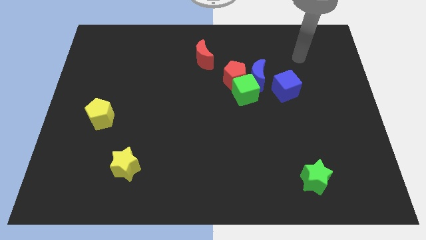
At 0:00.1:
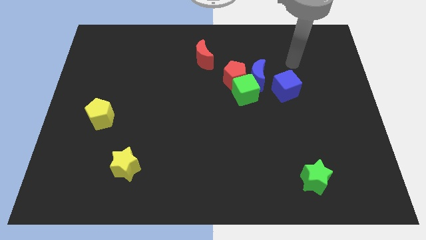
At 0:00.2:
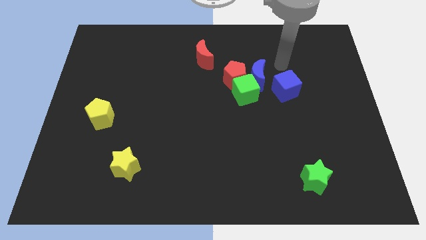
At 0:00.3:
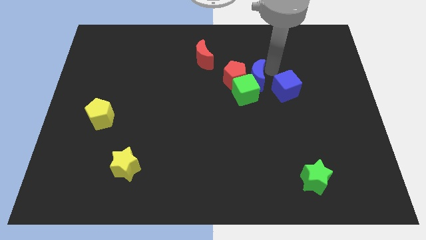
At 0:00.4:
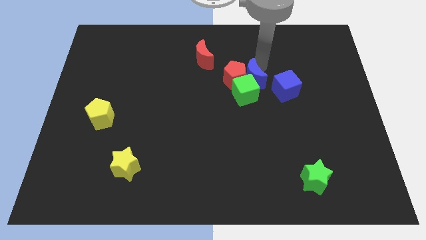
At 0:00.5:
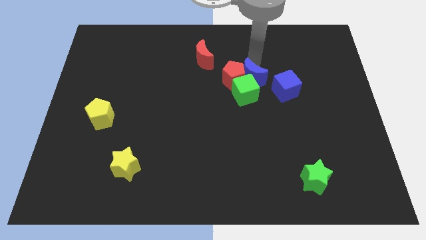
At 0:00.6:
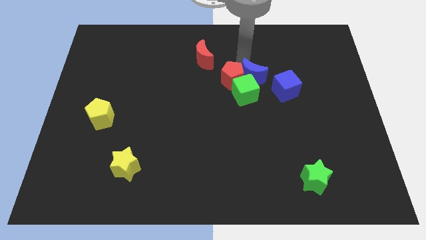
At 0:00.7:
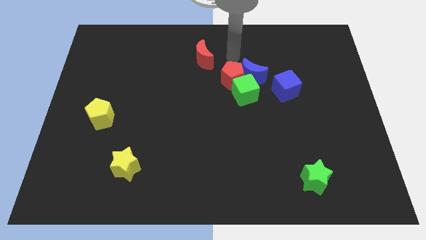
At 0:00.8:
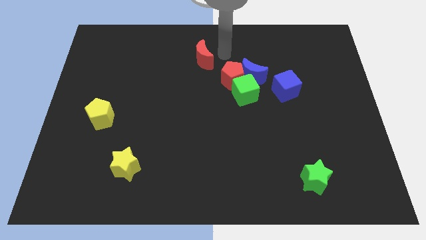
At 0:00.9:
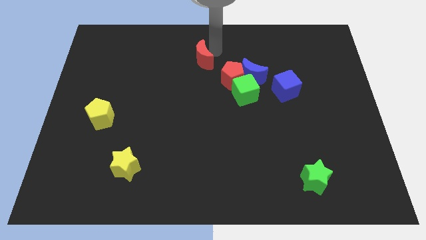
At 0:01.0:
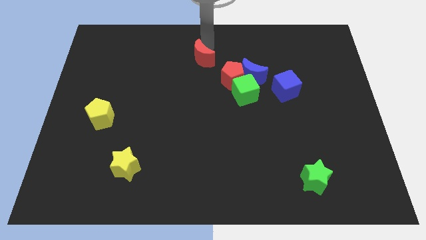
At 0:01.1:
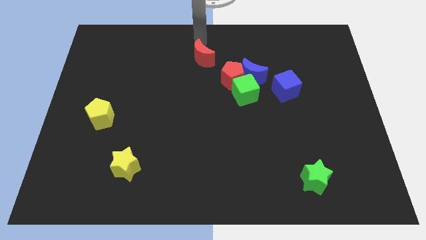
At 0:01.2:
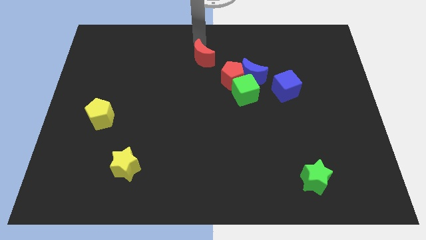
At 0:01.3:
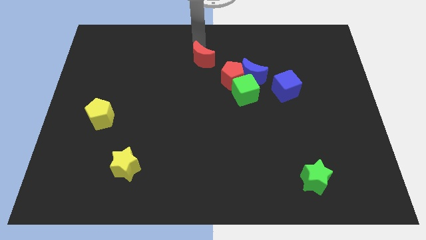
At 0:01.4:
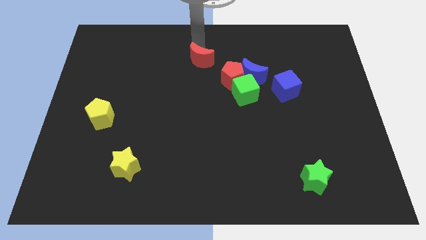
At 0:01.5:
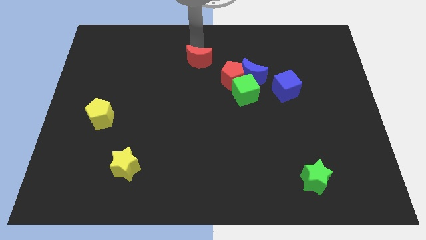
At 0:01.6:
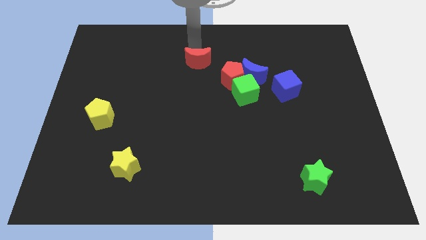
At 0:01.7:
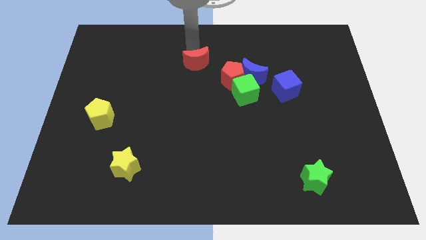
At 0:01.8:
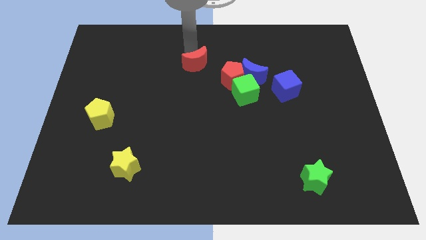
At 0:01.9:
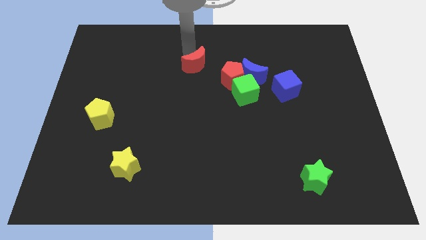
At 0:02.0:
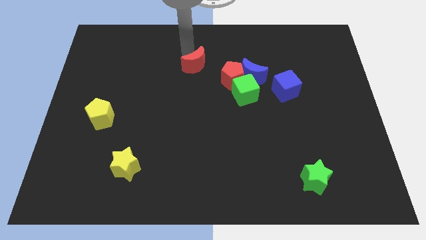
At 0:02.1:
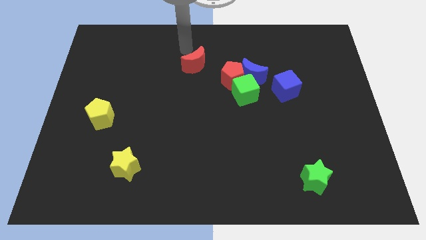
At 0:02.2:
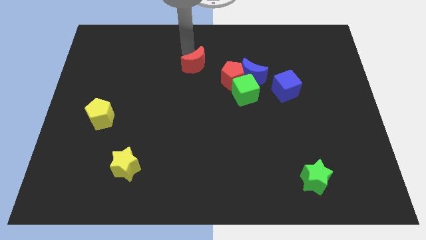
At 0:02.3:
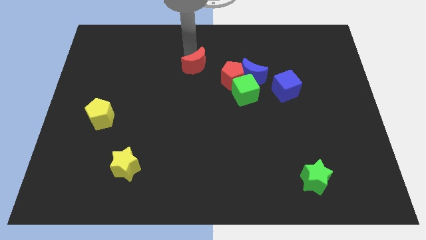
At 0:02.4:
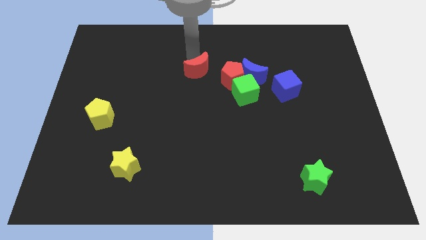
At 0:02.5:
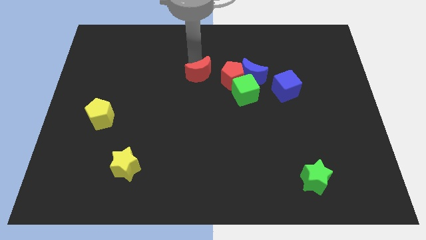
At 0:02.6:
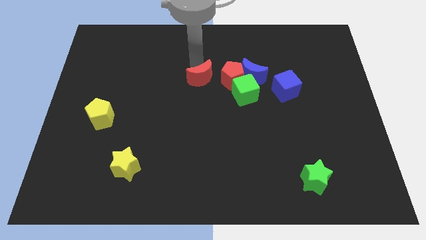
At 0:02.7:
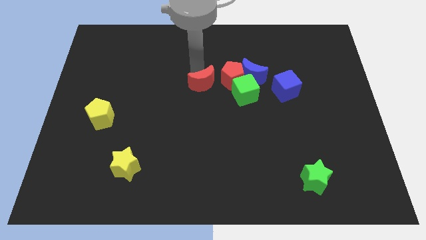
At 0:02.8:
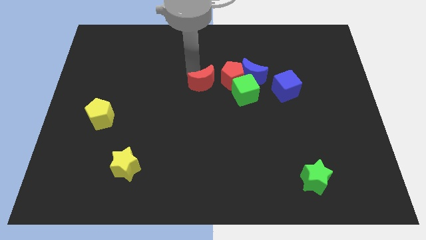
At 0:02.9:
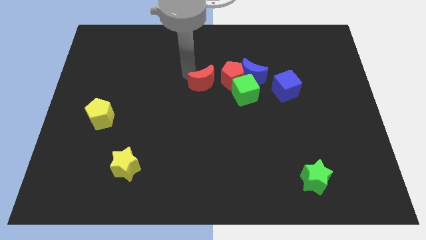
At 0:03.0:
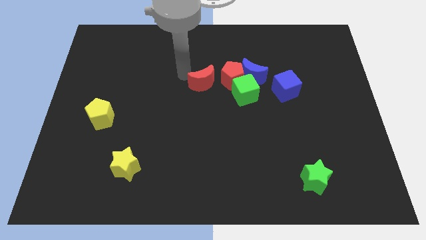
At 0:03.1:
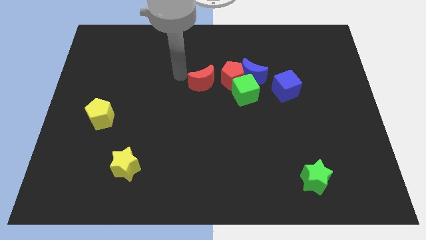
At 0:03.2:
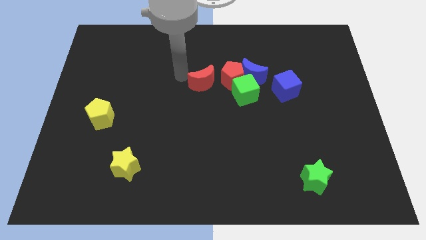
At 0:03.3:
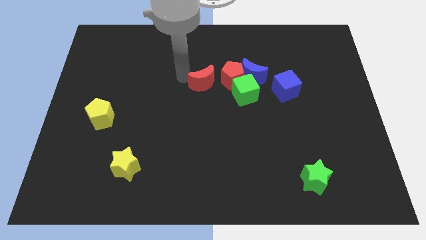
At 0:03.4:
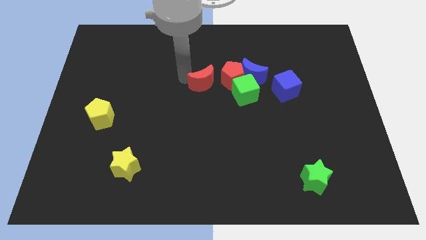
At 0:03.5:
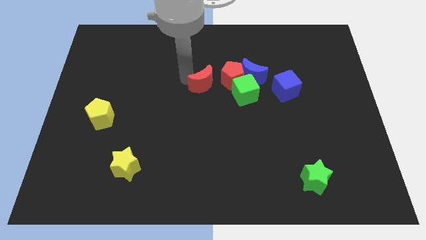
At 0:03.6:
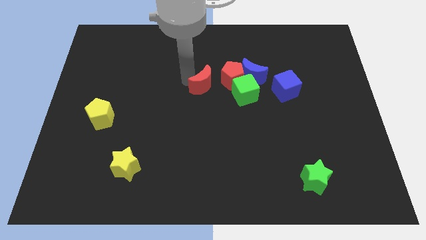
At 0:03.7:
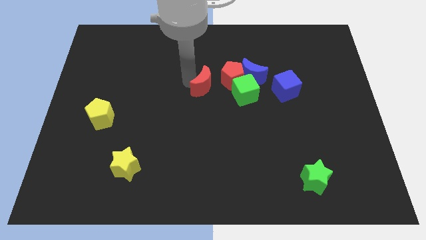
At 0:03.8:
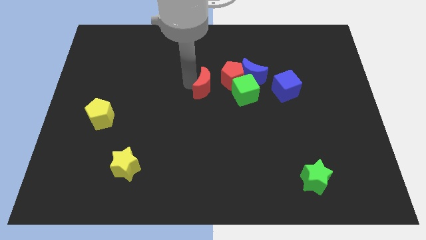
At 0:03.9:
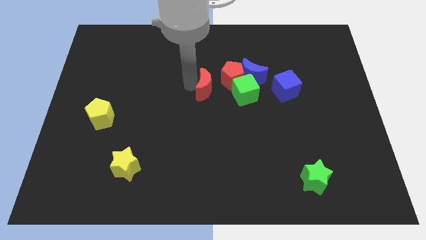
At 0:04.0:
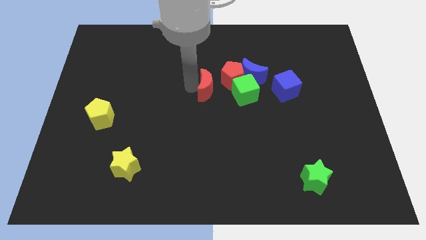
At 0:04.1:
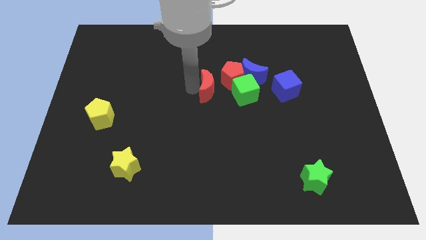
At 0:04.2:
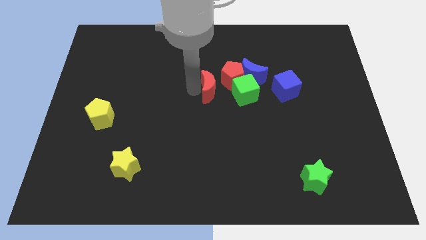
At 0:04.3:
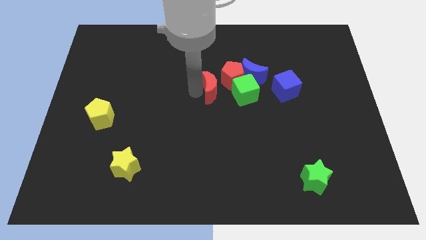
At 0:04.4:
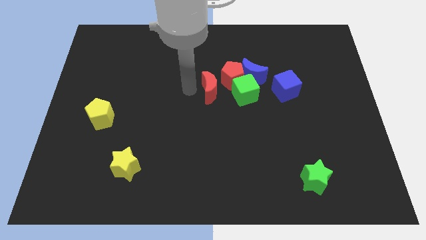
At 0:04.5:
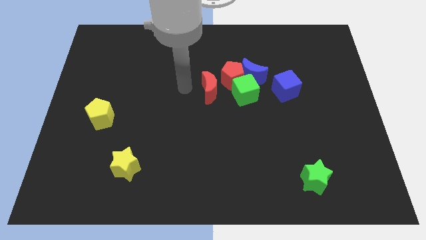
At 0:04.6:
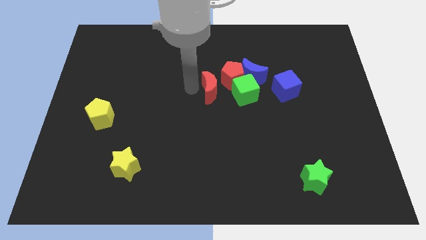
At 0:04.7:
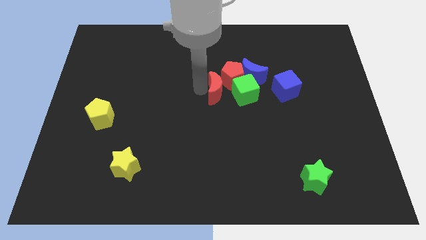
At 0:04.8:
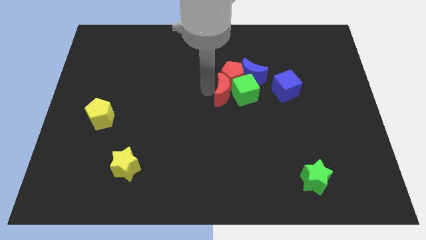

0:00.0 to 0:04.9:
put the red moon towards the green cube

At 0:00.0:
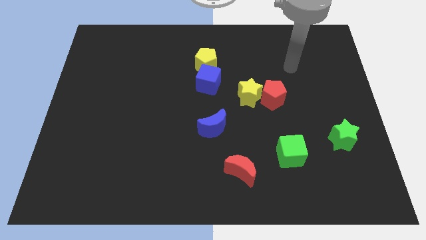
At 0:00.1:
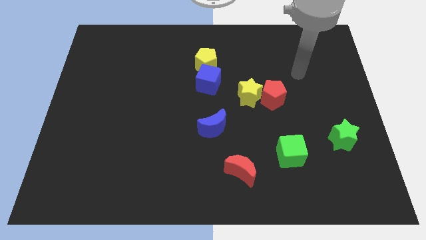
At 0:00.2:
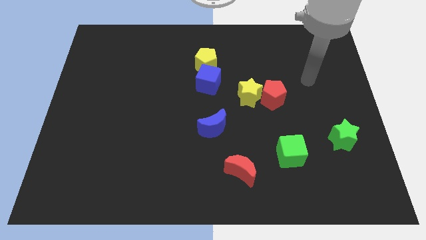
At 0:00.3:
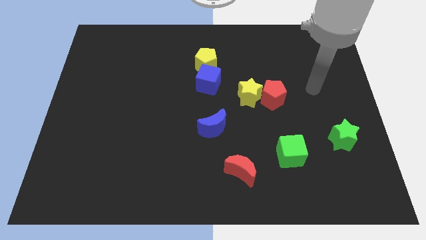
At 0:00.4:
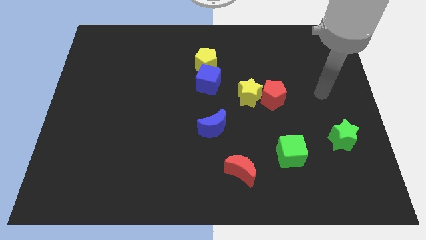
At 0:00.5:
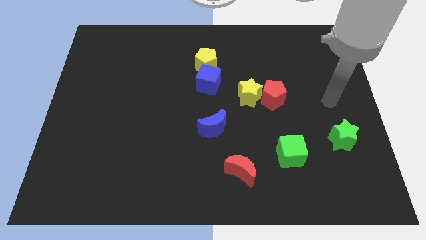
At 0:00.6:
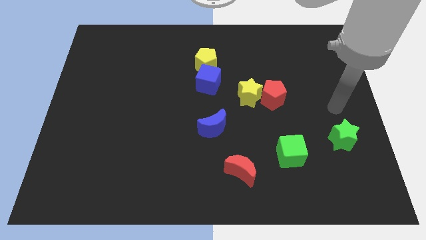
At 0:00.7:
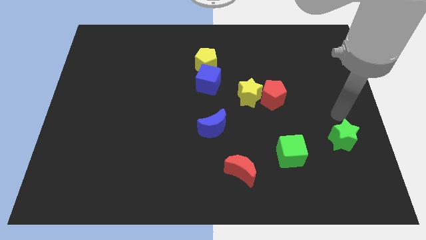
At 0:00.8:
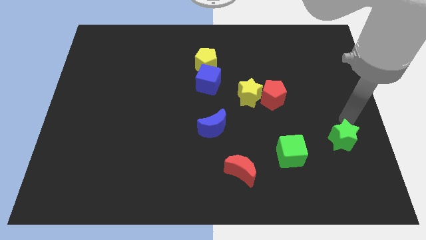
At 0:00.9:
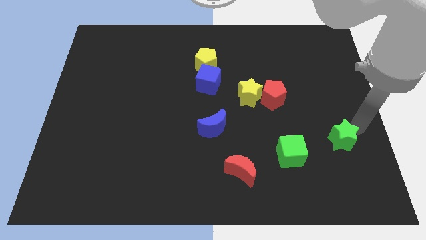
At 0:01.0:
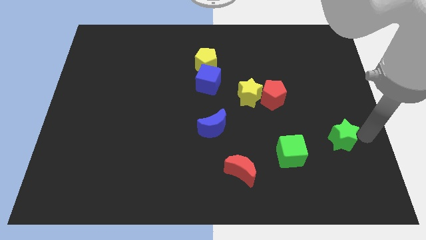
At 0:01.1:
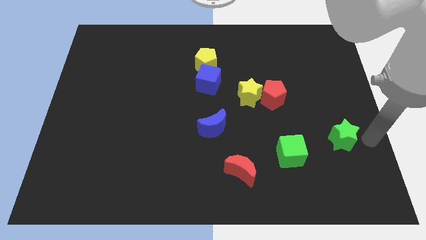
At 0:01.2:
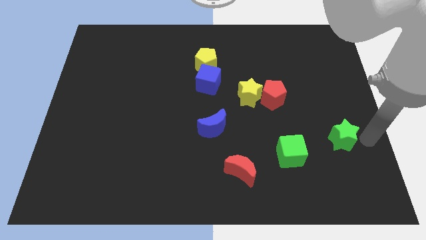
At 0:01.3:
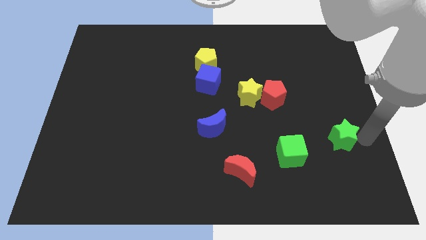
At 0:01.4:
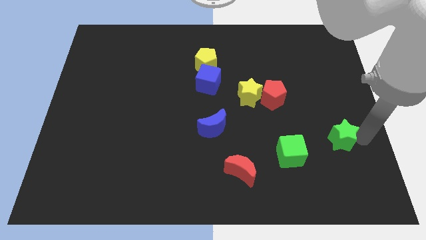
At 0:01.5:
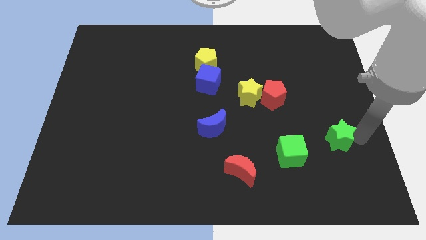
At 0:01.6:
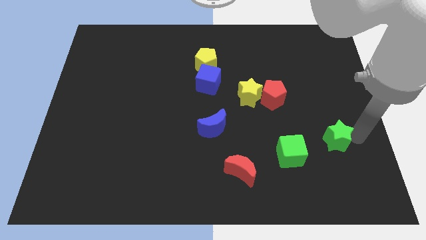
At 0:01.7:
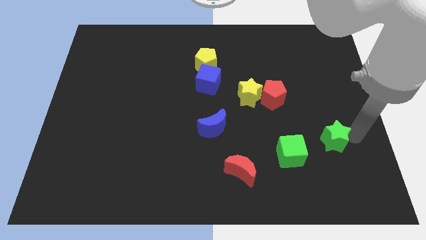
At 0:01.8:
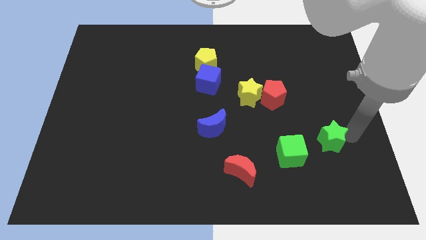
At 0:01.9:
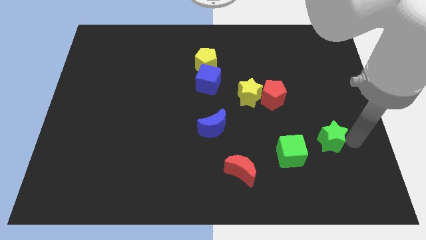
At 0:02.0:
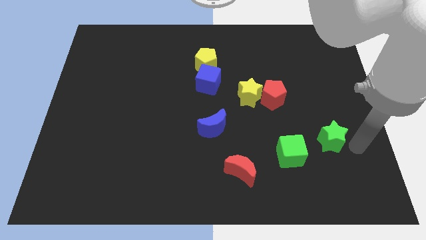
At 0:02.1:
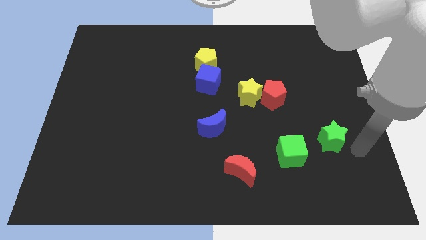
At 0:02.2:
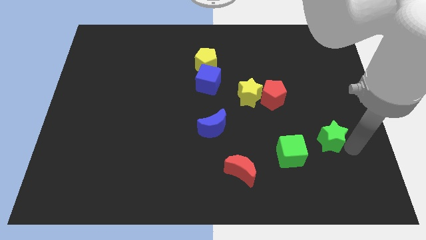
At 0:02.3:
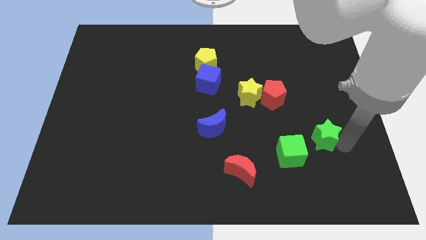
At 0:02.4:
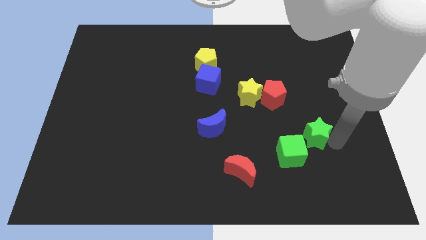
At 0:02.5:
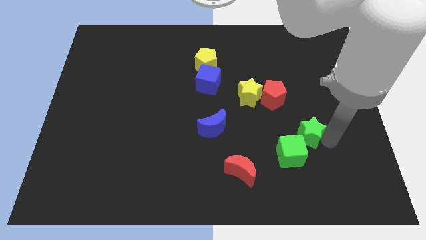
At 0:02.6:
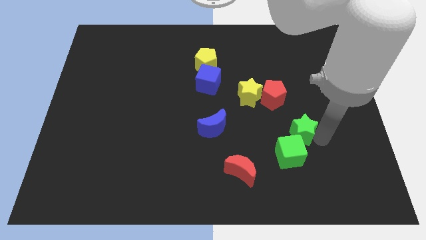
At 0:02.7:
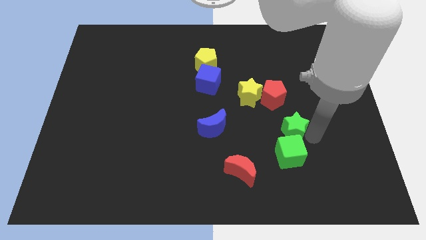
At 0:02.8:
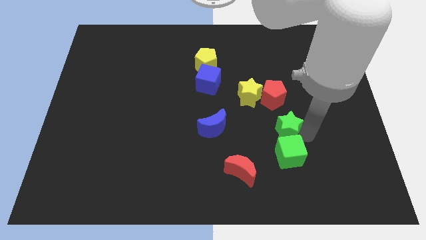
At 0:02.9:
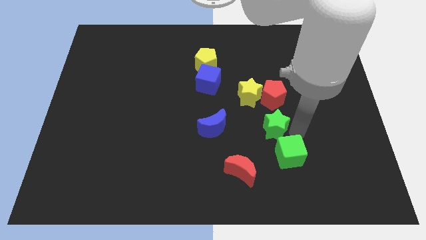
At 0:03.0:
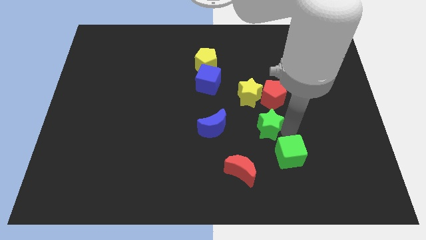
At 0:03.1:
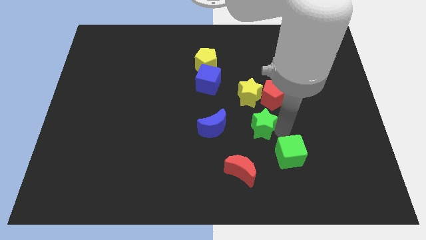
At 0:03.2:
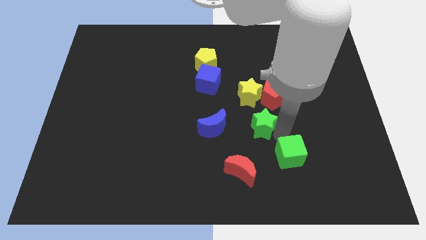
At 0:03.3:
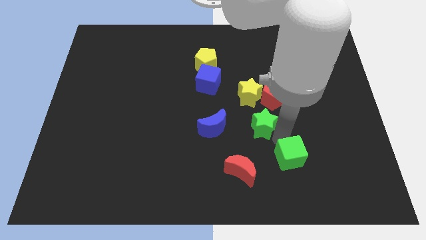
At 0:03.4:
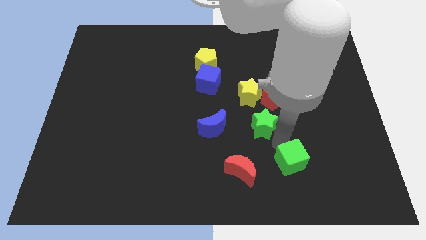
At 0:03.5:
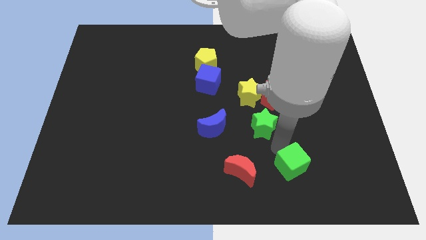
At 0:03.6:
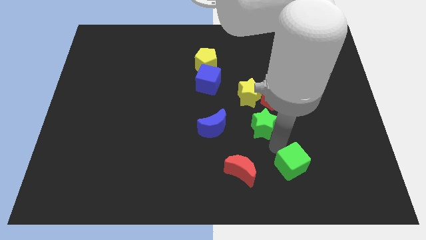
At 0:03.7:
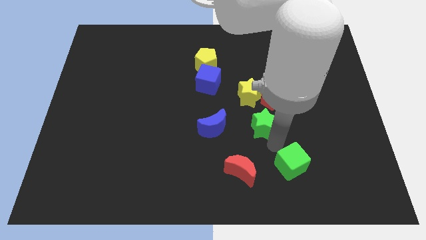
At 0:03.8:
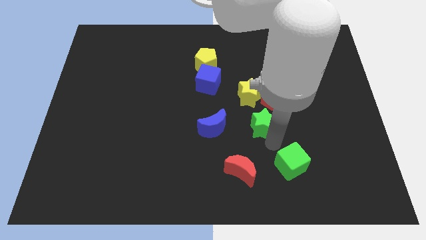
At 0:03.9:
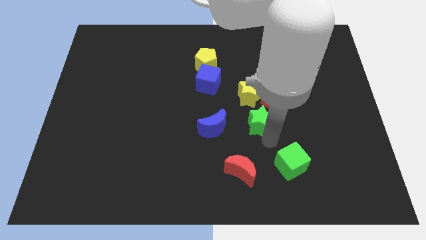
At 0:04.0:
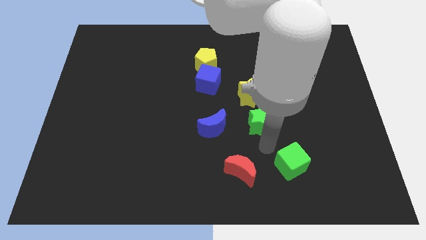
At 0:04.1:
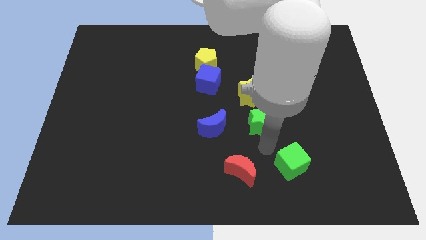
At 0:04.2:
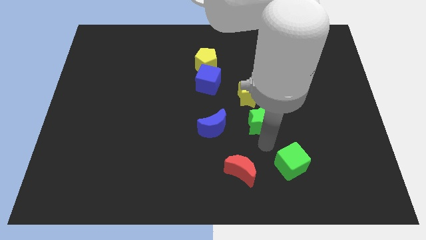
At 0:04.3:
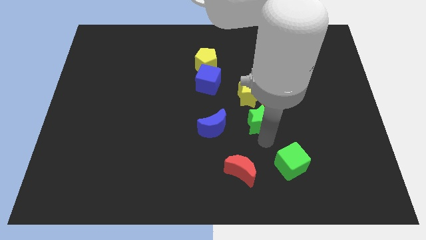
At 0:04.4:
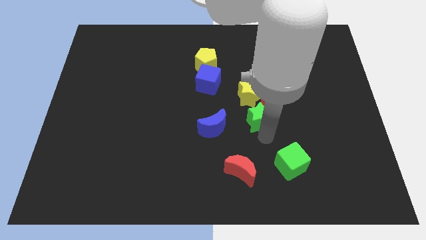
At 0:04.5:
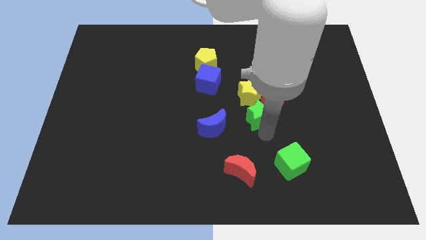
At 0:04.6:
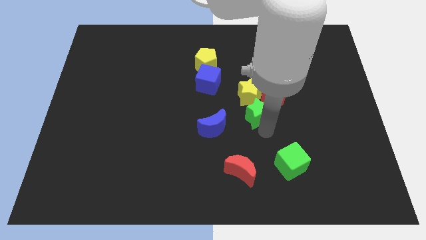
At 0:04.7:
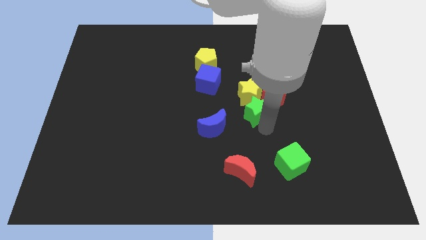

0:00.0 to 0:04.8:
slide the green star next to the yellow star
